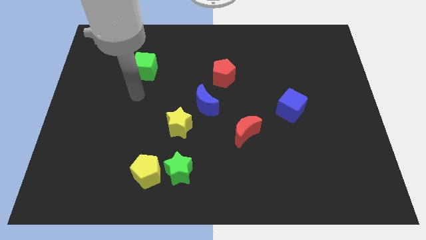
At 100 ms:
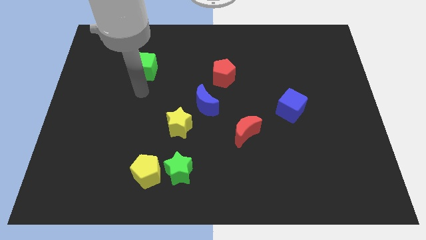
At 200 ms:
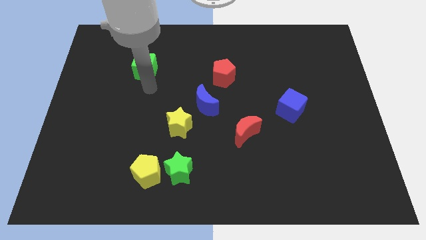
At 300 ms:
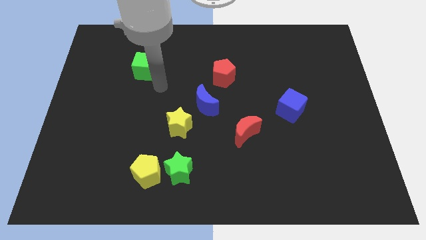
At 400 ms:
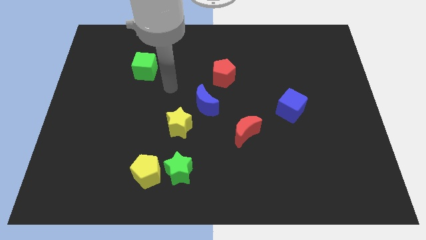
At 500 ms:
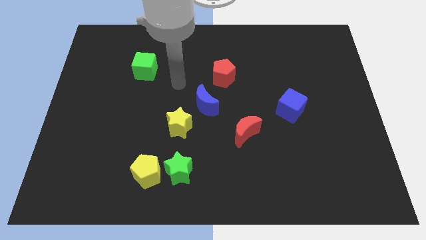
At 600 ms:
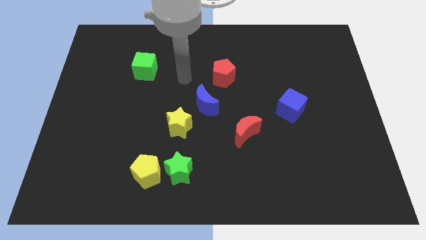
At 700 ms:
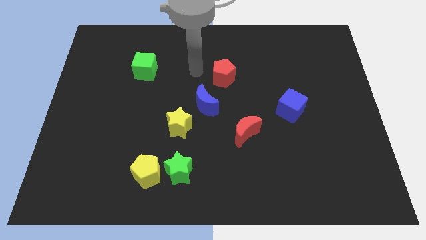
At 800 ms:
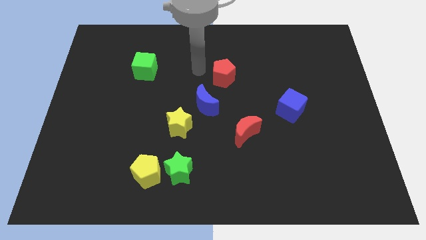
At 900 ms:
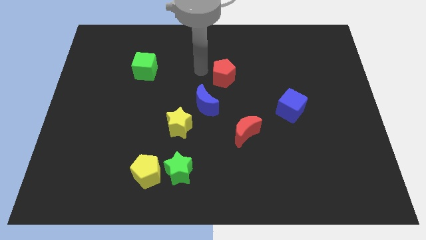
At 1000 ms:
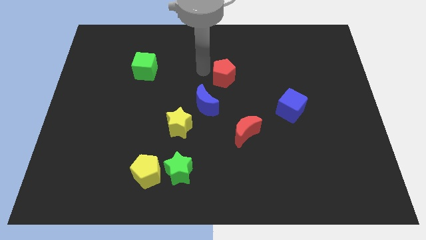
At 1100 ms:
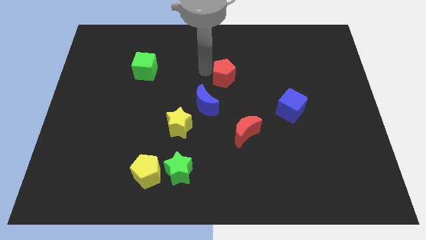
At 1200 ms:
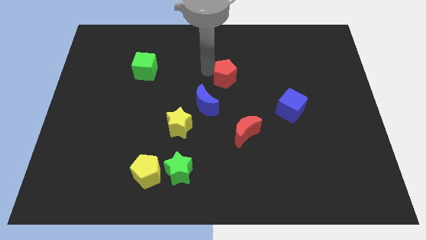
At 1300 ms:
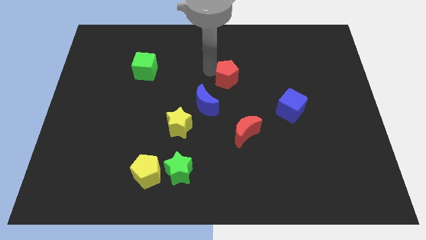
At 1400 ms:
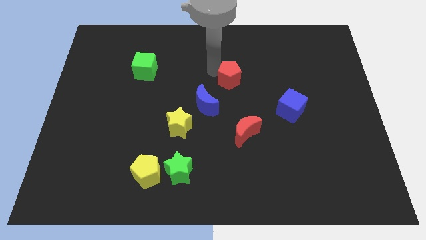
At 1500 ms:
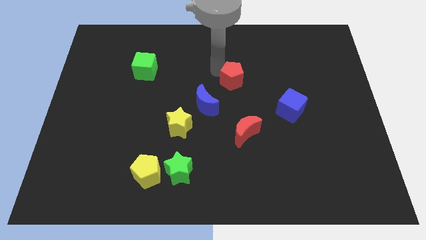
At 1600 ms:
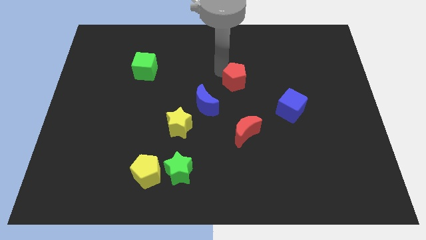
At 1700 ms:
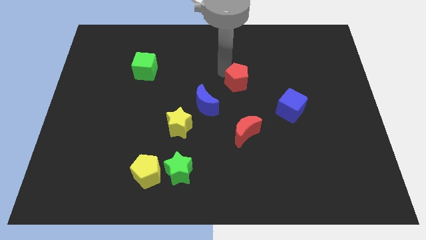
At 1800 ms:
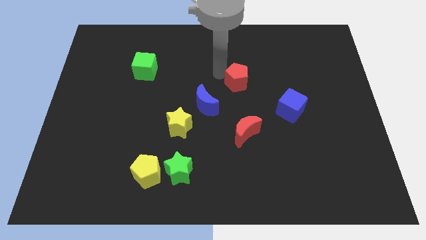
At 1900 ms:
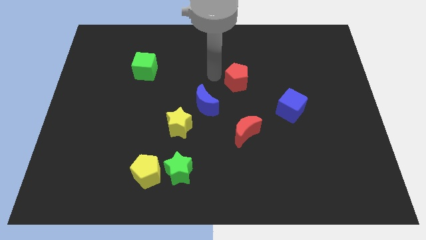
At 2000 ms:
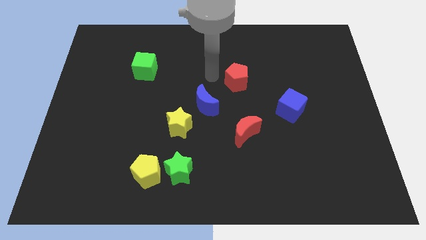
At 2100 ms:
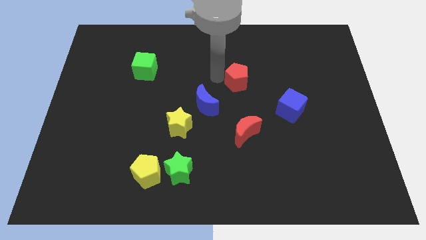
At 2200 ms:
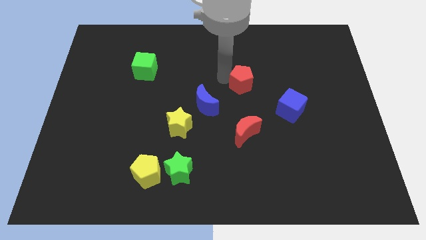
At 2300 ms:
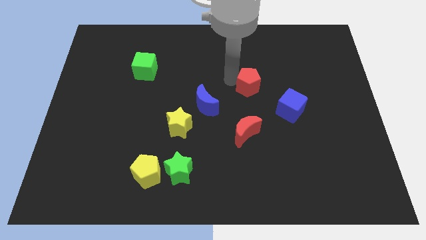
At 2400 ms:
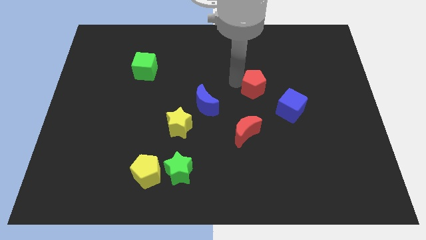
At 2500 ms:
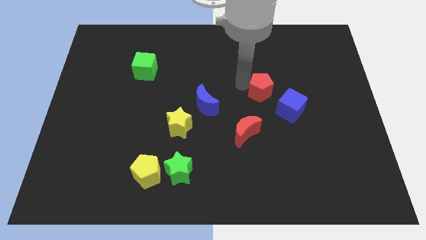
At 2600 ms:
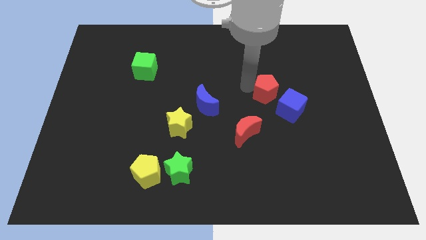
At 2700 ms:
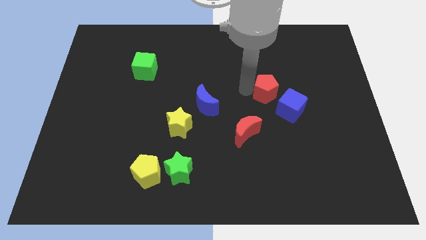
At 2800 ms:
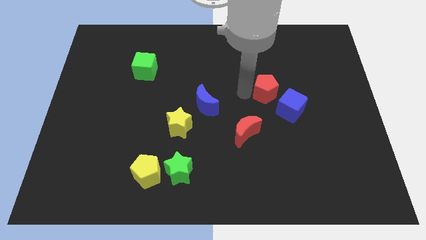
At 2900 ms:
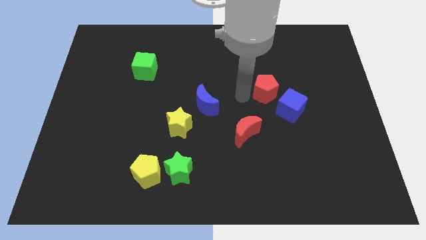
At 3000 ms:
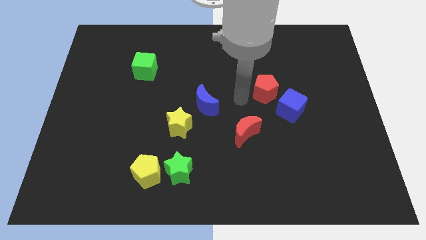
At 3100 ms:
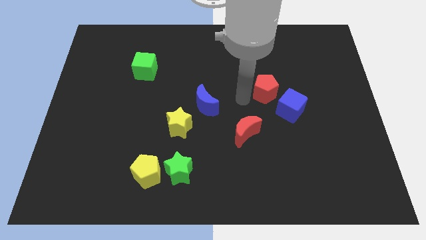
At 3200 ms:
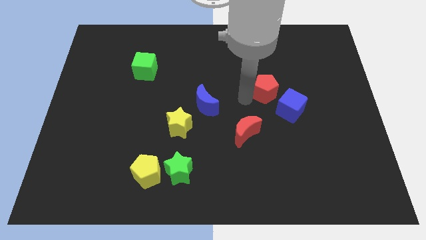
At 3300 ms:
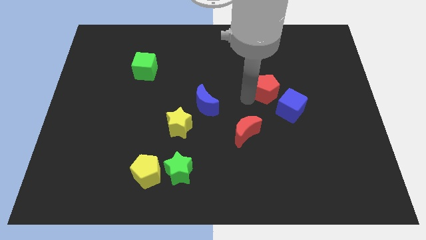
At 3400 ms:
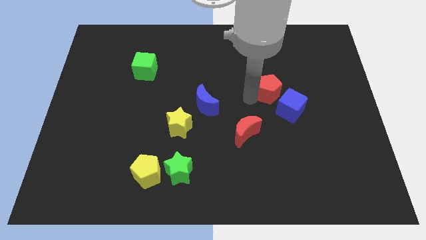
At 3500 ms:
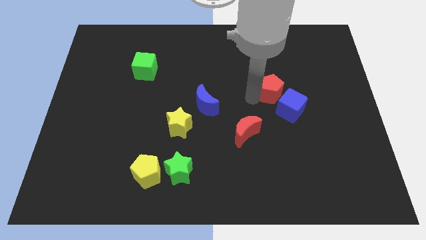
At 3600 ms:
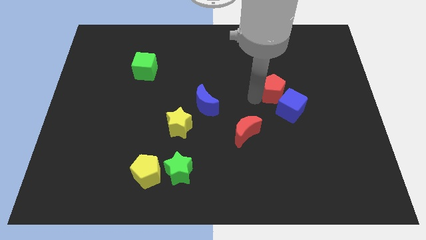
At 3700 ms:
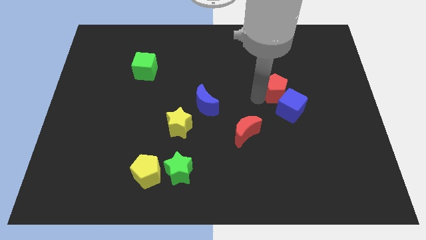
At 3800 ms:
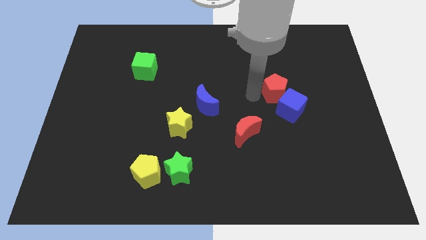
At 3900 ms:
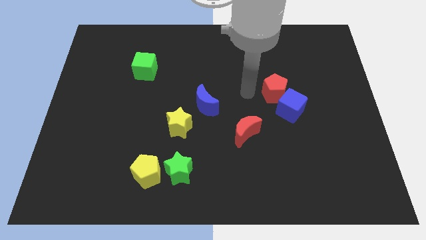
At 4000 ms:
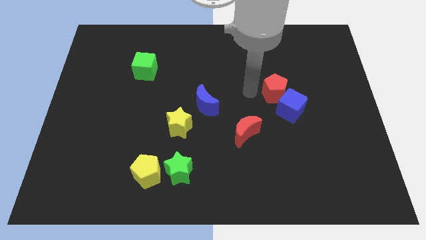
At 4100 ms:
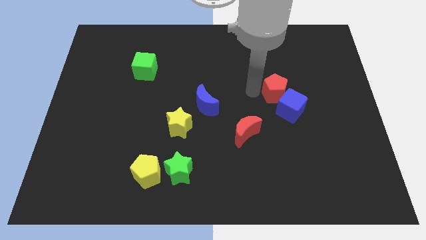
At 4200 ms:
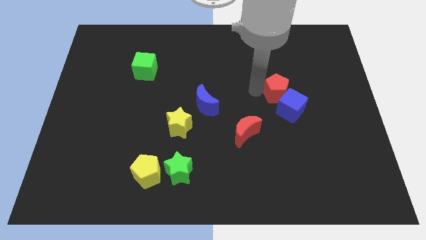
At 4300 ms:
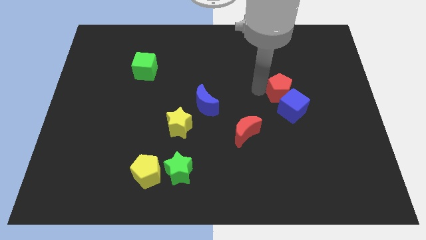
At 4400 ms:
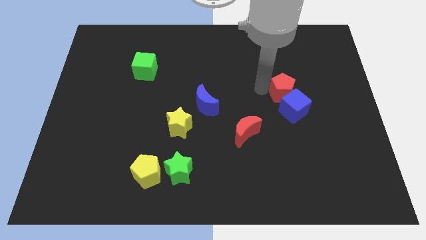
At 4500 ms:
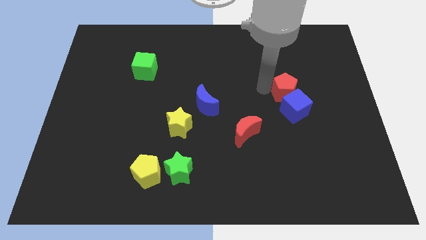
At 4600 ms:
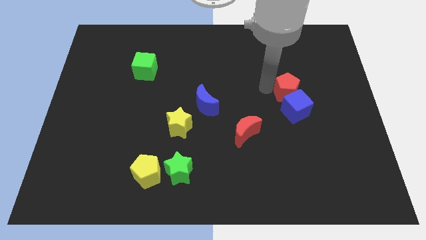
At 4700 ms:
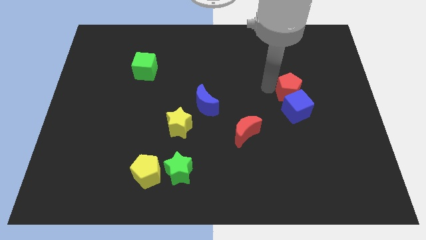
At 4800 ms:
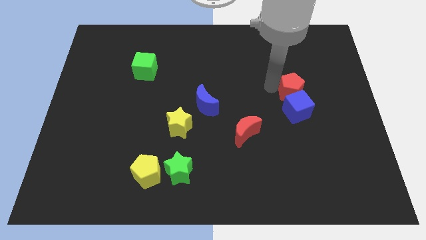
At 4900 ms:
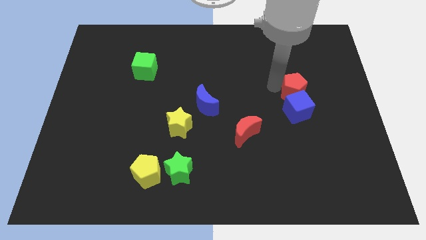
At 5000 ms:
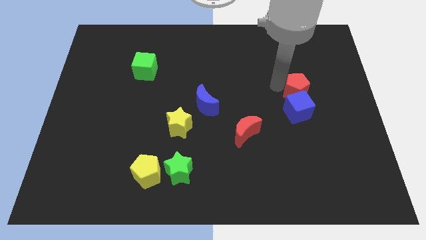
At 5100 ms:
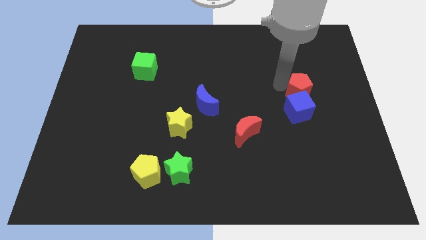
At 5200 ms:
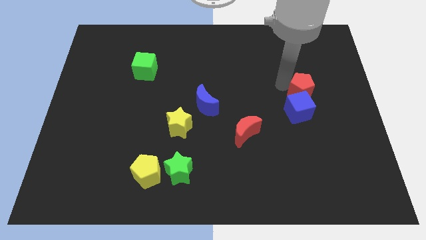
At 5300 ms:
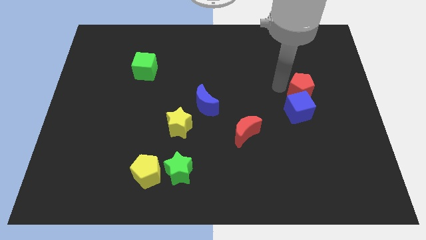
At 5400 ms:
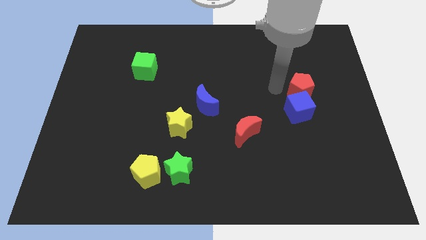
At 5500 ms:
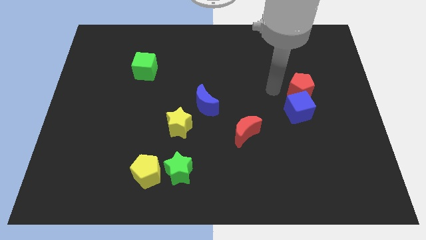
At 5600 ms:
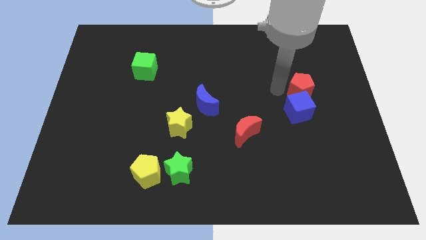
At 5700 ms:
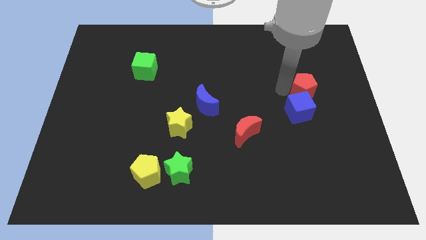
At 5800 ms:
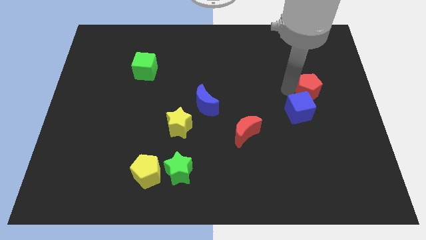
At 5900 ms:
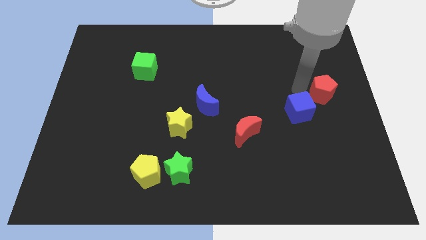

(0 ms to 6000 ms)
move the red pentagon to the center right

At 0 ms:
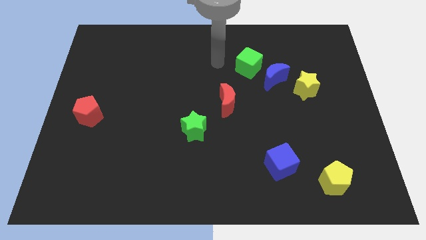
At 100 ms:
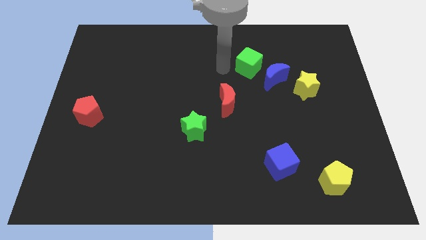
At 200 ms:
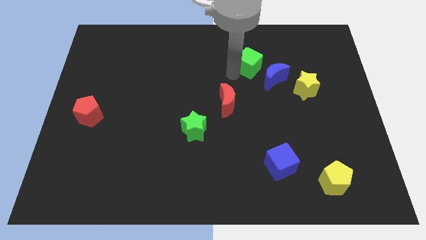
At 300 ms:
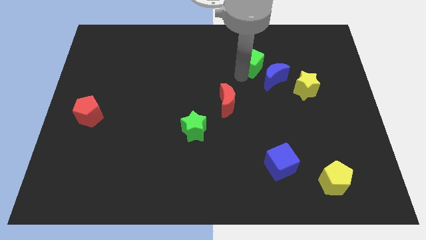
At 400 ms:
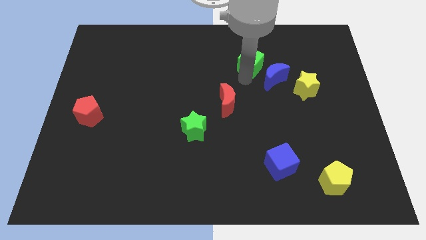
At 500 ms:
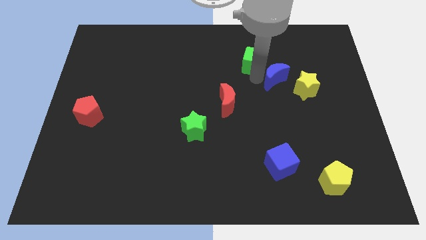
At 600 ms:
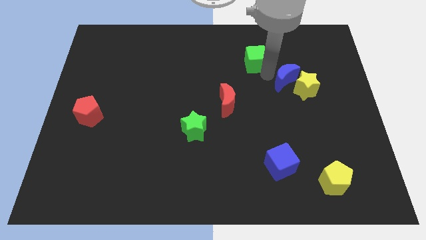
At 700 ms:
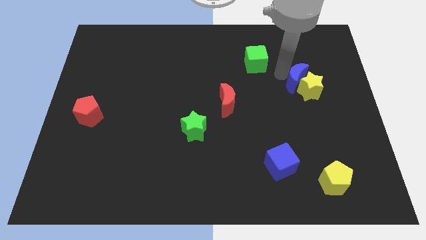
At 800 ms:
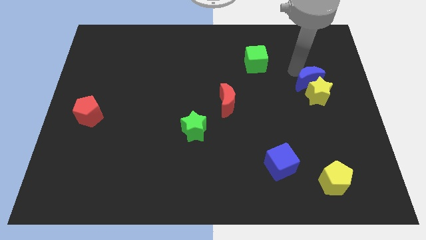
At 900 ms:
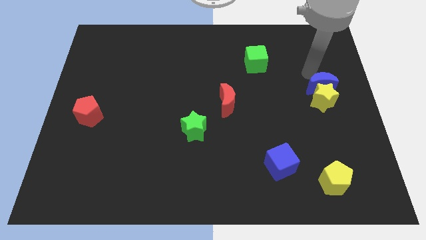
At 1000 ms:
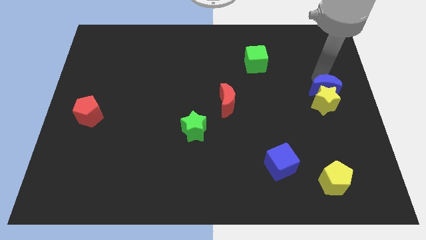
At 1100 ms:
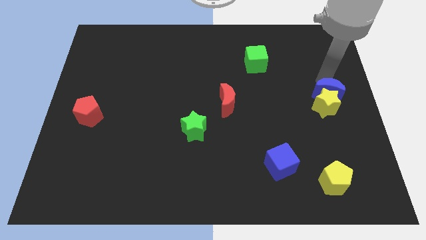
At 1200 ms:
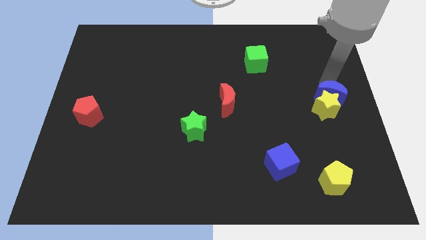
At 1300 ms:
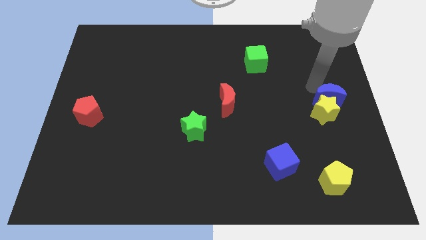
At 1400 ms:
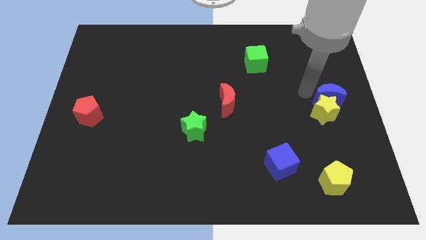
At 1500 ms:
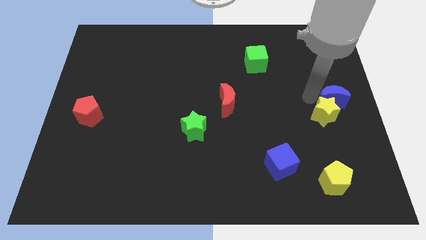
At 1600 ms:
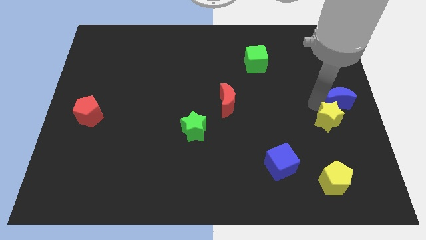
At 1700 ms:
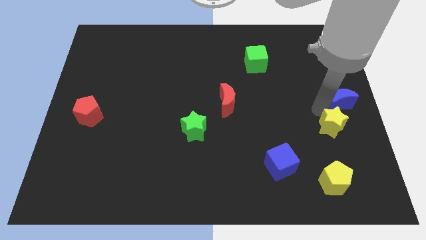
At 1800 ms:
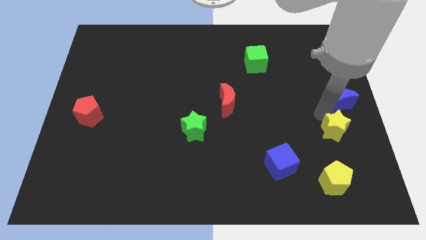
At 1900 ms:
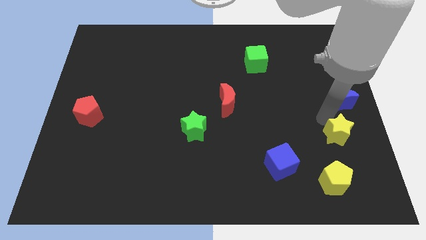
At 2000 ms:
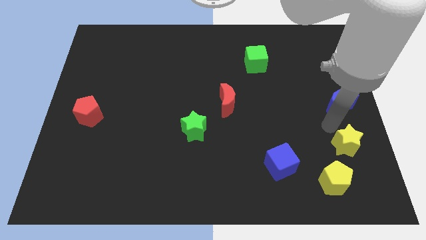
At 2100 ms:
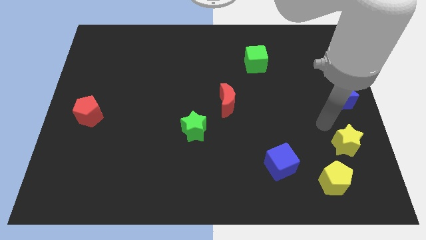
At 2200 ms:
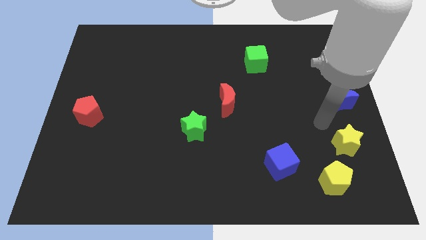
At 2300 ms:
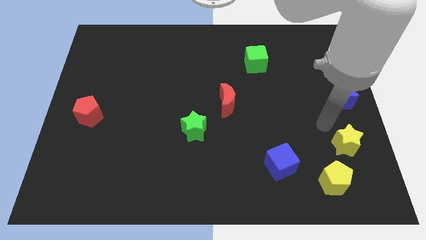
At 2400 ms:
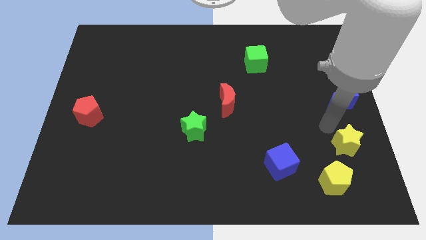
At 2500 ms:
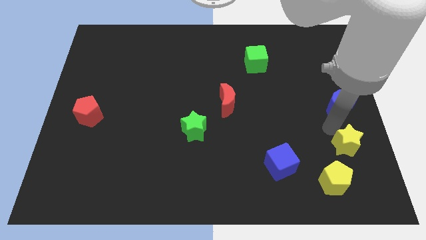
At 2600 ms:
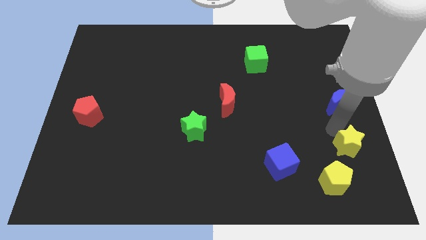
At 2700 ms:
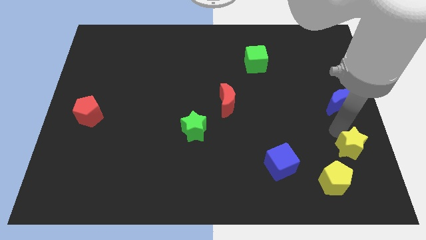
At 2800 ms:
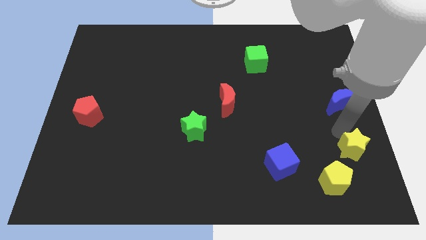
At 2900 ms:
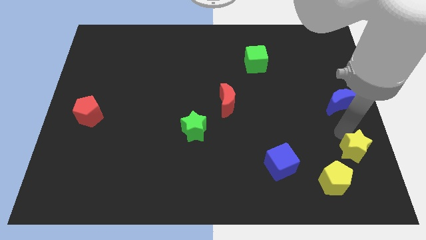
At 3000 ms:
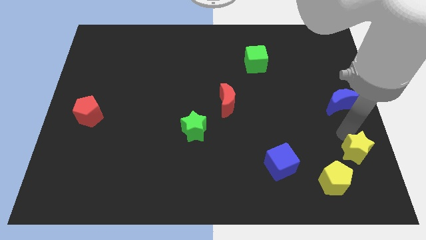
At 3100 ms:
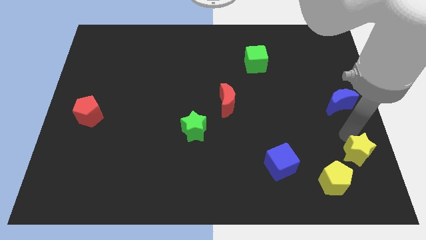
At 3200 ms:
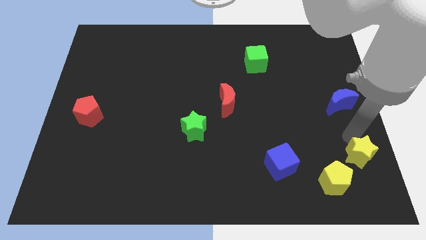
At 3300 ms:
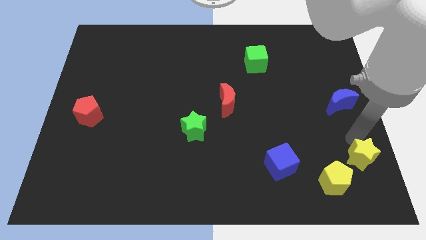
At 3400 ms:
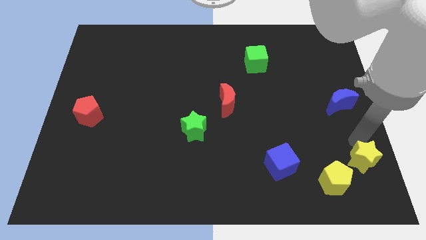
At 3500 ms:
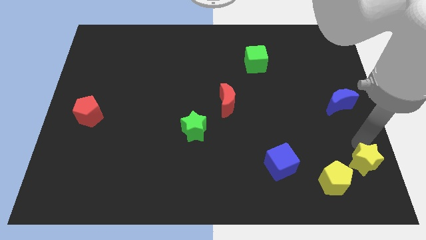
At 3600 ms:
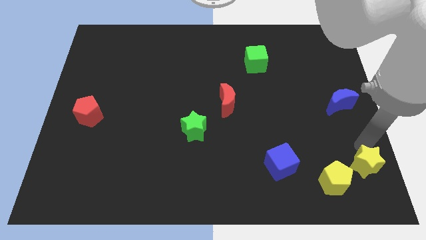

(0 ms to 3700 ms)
put the yellow star to the bottom right
